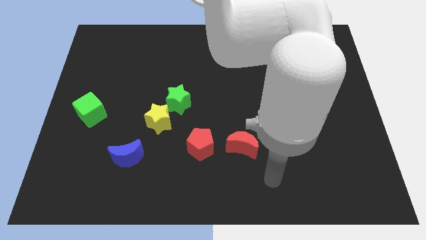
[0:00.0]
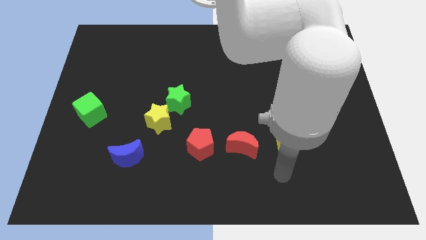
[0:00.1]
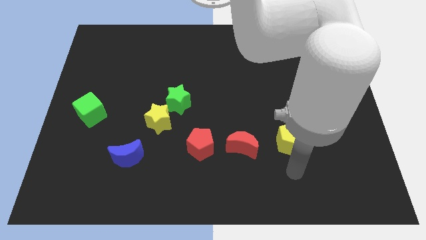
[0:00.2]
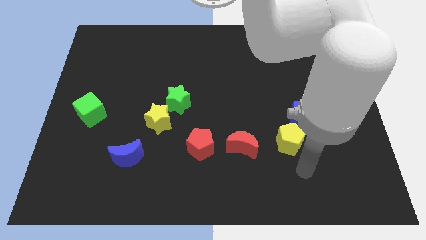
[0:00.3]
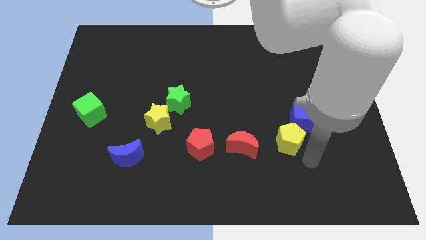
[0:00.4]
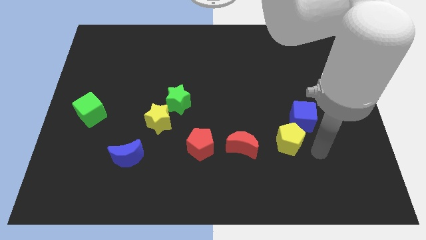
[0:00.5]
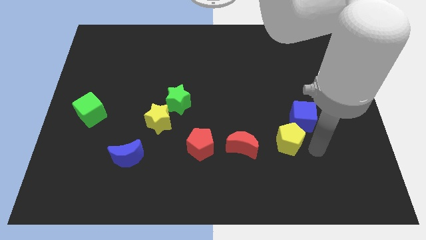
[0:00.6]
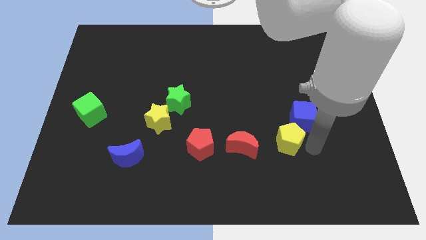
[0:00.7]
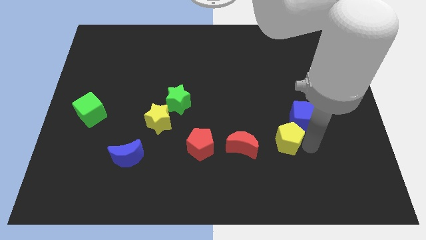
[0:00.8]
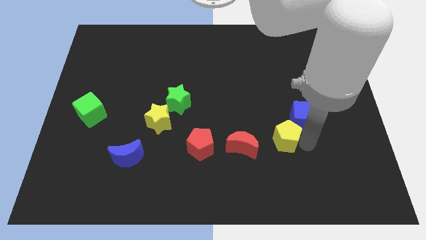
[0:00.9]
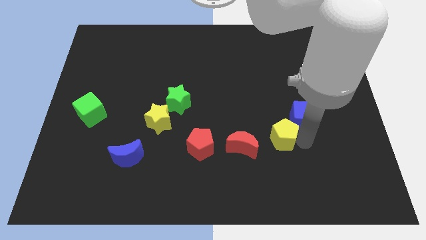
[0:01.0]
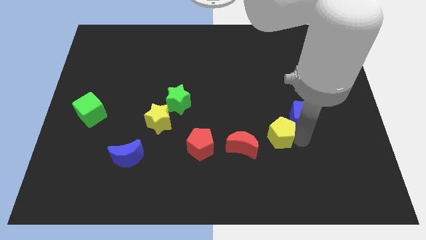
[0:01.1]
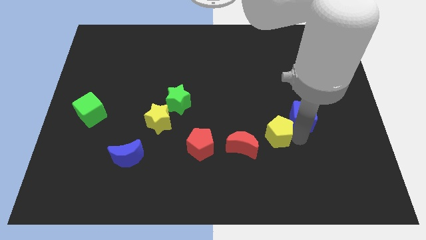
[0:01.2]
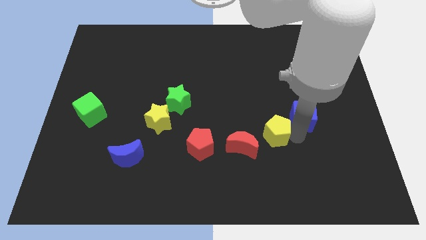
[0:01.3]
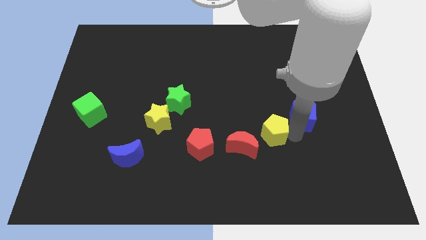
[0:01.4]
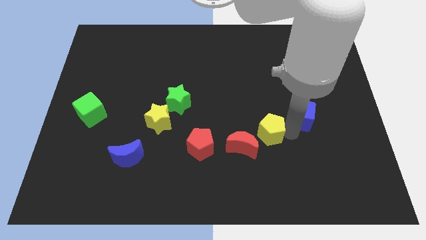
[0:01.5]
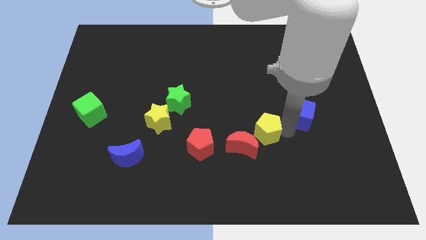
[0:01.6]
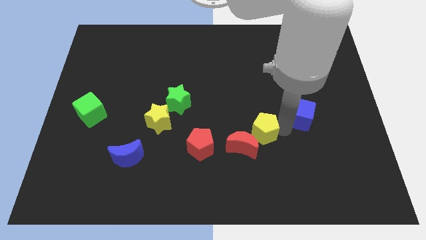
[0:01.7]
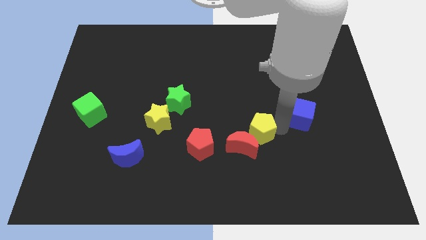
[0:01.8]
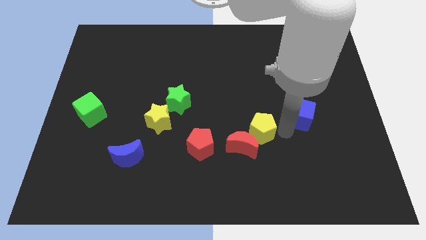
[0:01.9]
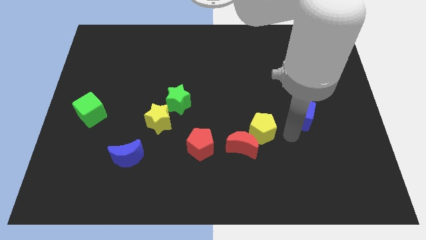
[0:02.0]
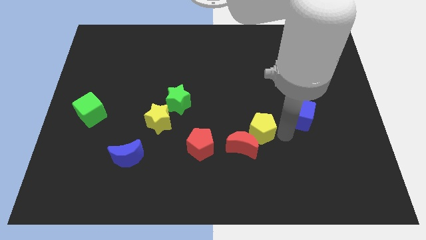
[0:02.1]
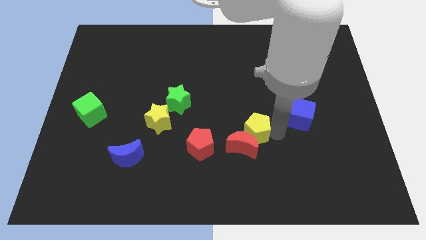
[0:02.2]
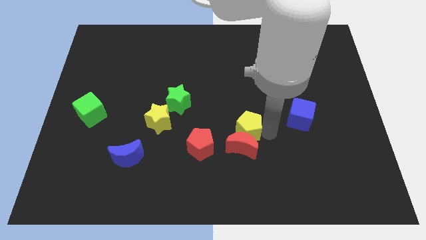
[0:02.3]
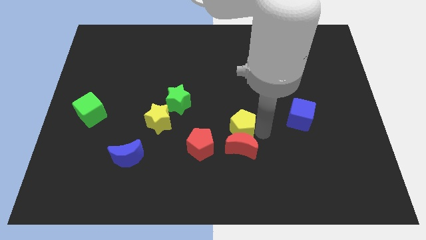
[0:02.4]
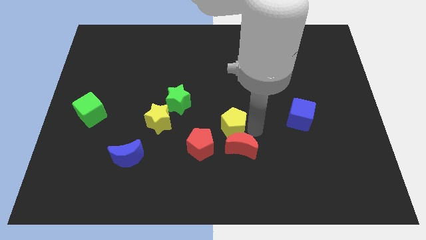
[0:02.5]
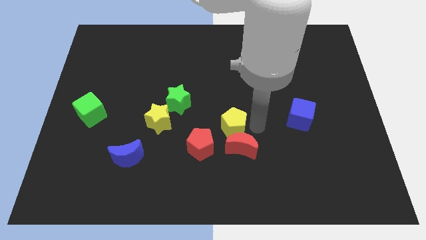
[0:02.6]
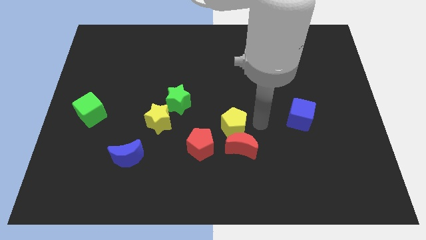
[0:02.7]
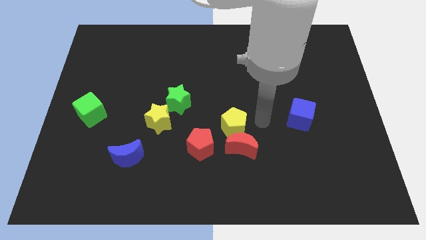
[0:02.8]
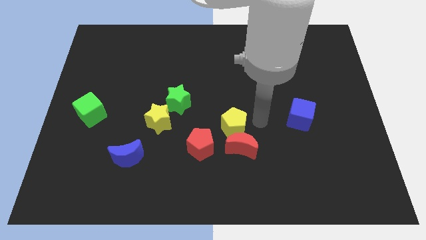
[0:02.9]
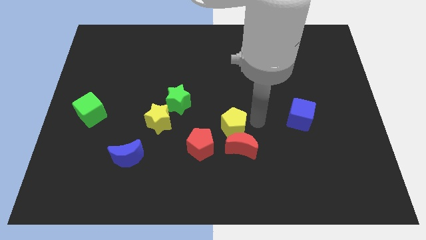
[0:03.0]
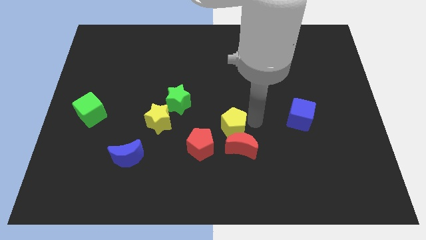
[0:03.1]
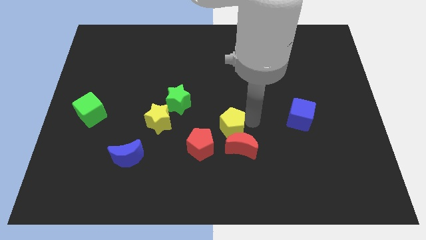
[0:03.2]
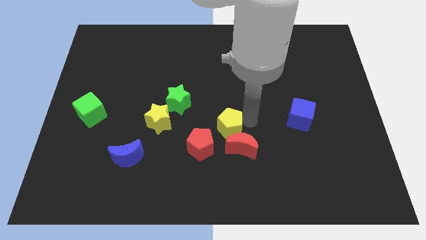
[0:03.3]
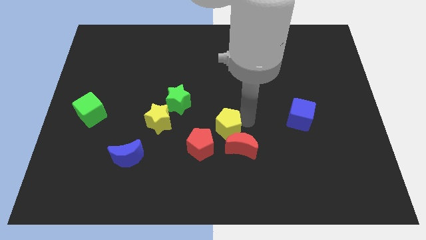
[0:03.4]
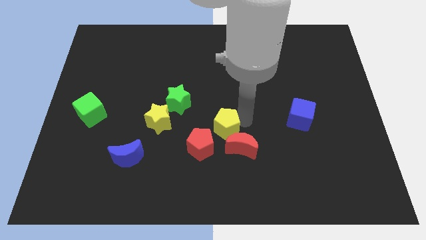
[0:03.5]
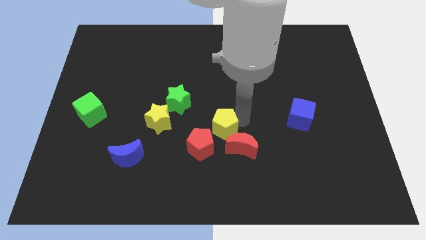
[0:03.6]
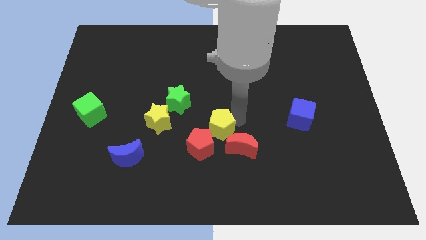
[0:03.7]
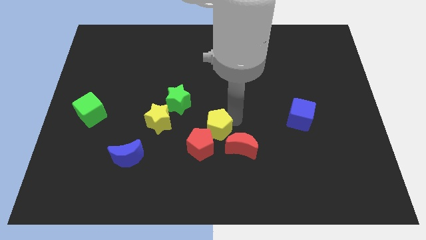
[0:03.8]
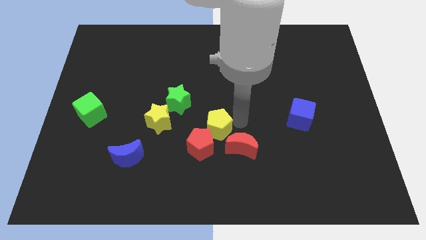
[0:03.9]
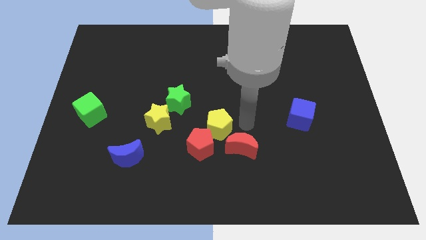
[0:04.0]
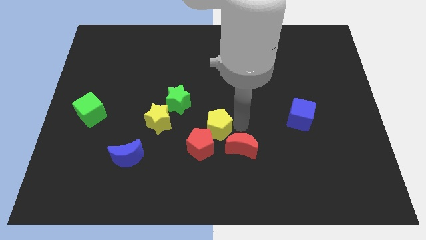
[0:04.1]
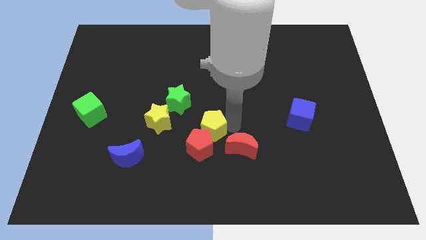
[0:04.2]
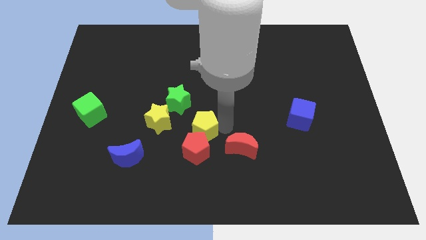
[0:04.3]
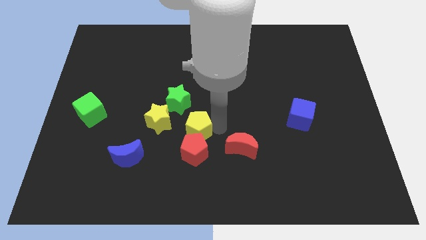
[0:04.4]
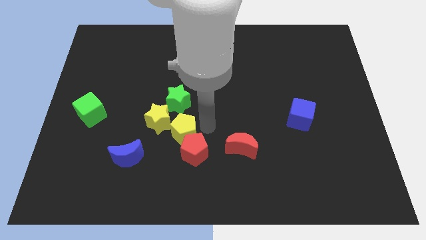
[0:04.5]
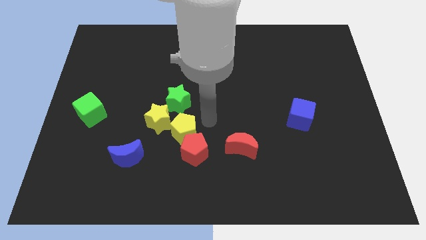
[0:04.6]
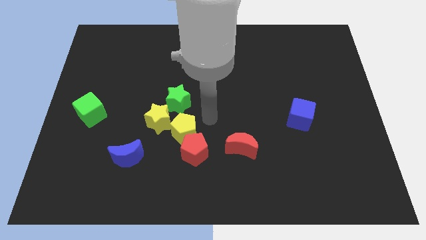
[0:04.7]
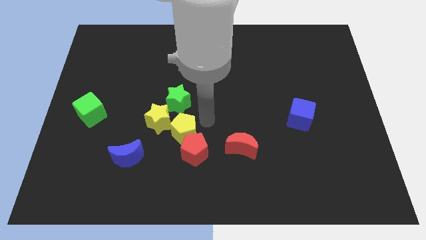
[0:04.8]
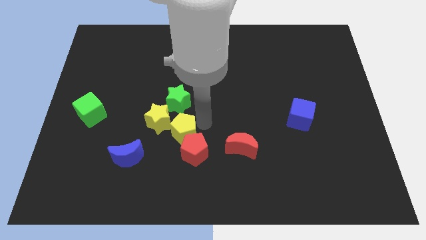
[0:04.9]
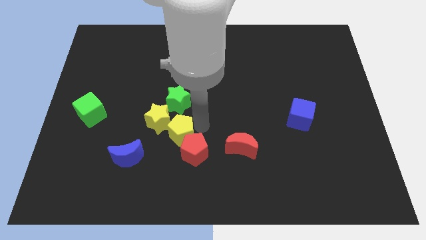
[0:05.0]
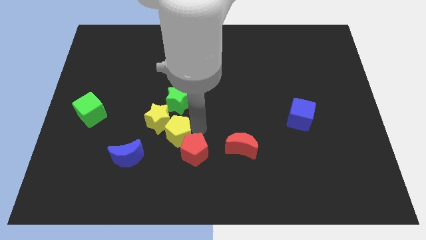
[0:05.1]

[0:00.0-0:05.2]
put the yellow pentagon just left of the red pentagon

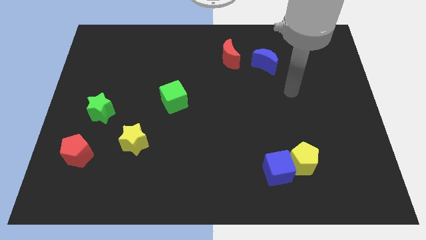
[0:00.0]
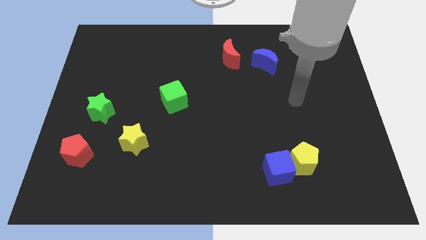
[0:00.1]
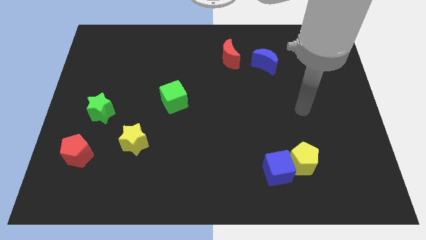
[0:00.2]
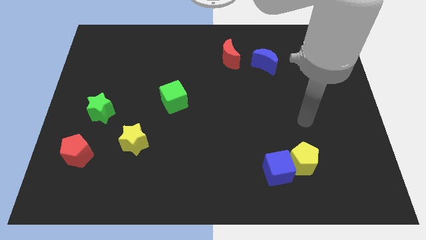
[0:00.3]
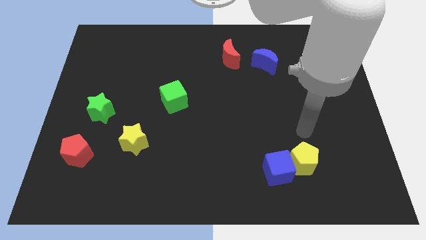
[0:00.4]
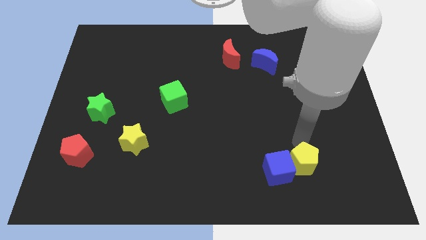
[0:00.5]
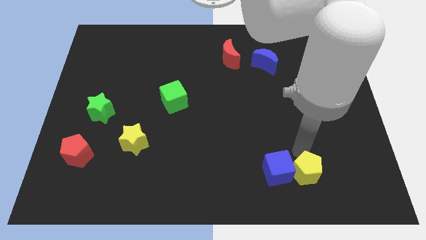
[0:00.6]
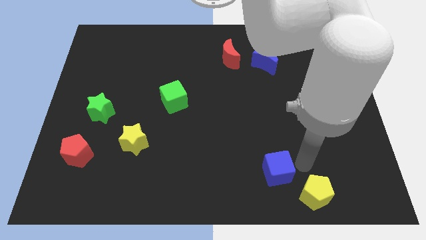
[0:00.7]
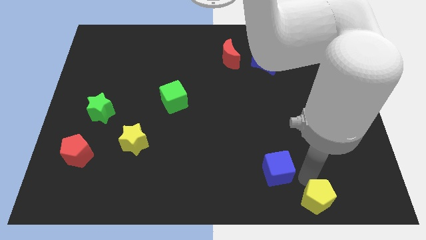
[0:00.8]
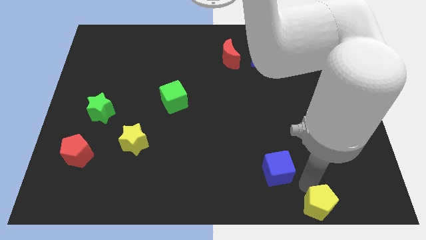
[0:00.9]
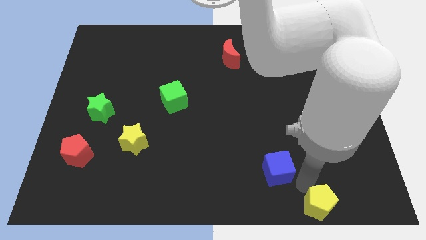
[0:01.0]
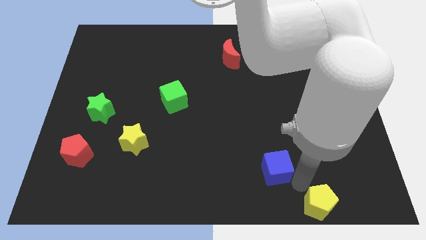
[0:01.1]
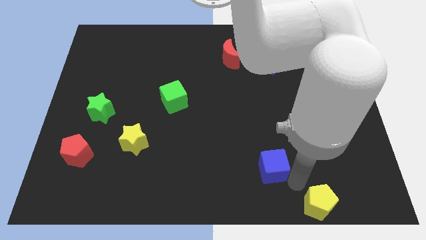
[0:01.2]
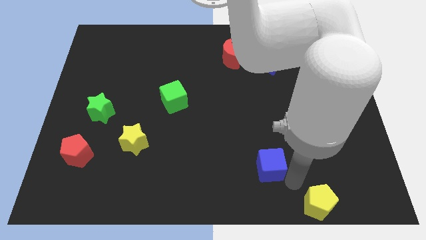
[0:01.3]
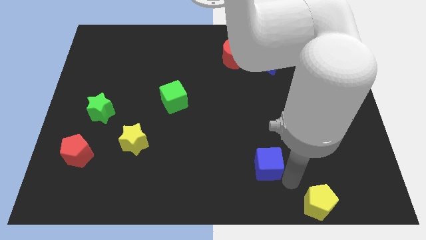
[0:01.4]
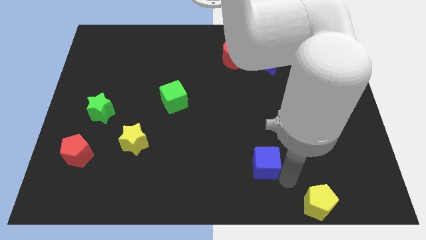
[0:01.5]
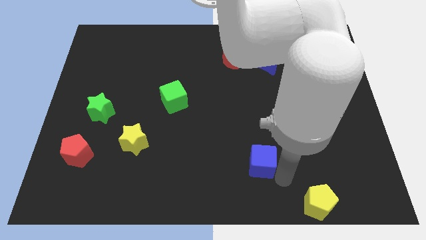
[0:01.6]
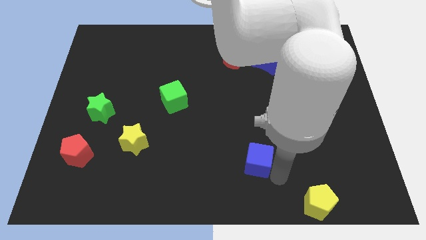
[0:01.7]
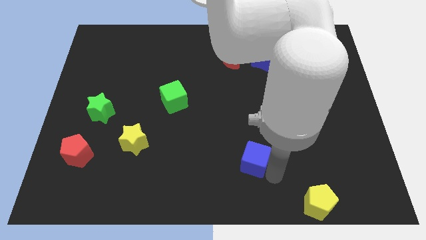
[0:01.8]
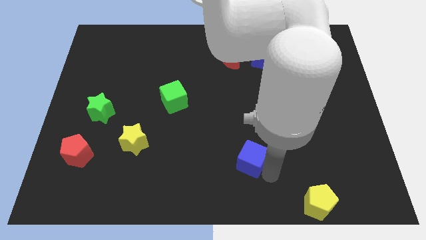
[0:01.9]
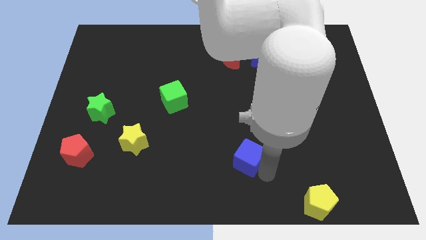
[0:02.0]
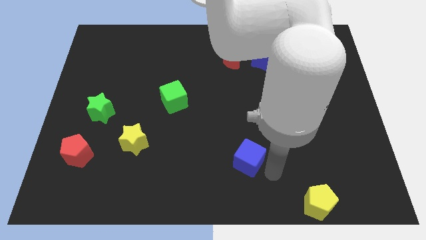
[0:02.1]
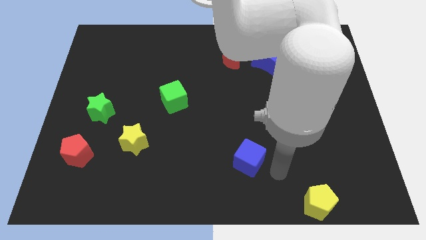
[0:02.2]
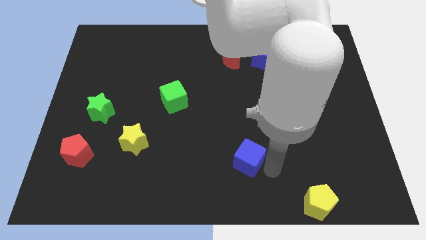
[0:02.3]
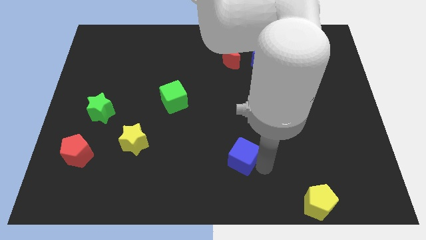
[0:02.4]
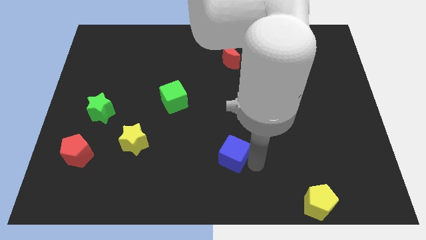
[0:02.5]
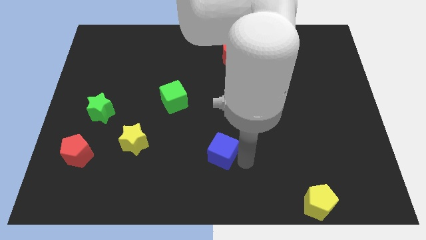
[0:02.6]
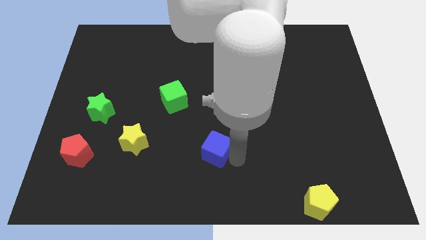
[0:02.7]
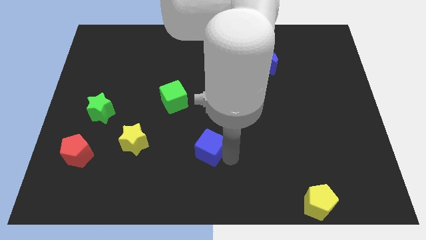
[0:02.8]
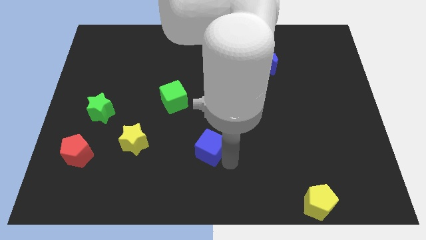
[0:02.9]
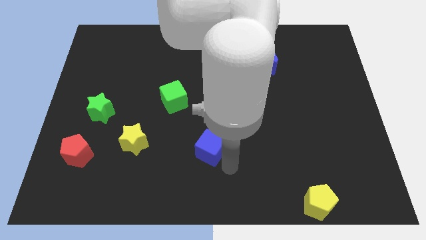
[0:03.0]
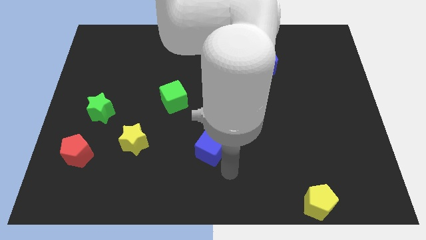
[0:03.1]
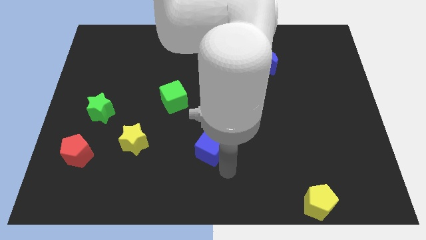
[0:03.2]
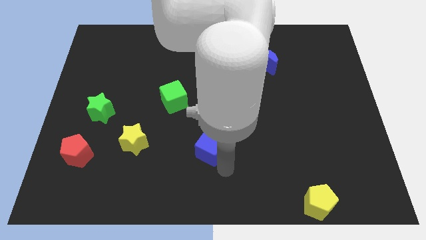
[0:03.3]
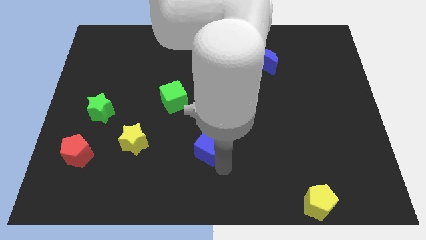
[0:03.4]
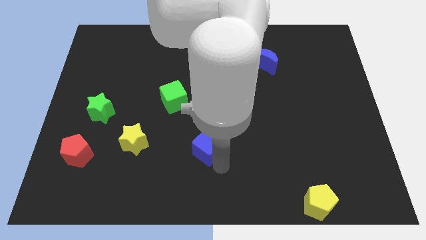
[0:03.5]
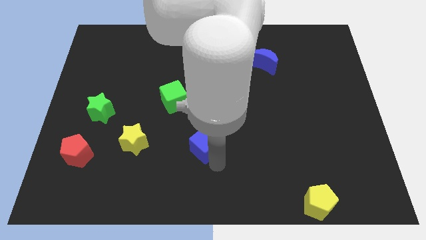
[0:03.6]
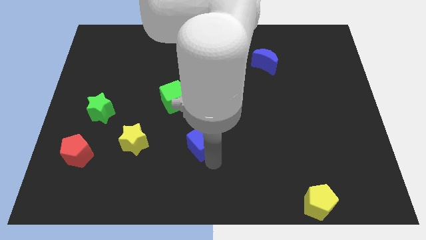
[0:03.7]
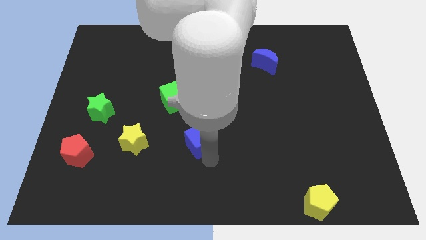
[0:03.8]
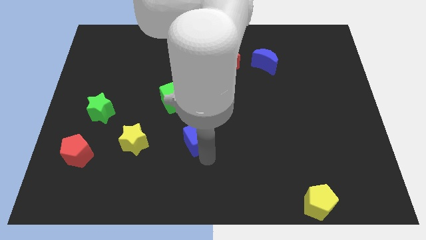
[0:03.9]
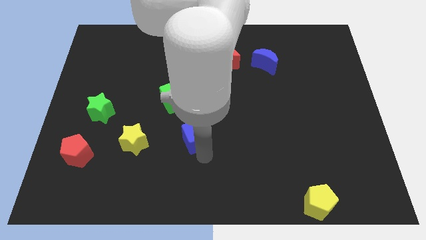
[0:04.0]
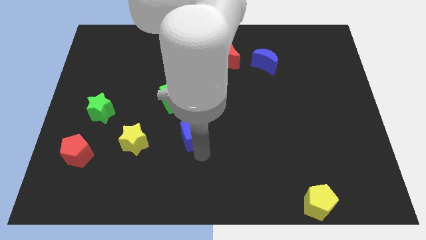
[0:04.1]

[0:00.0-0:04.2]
move the blue cube to the bottom right side of the green cube
